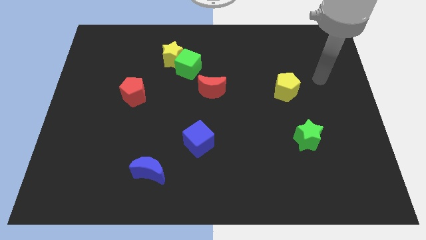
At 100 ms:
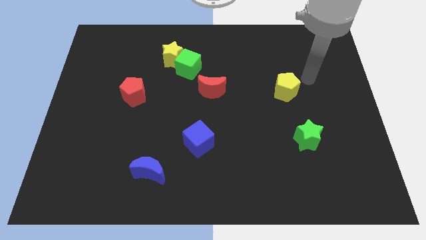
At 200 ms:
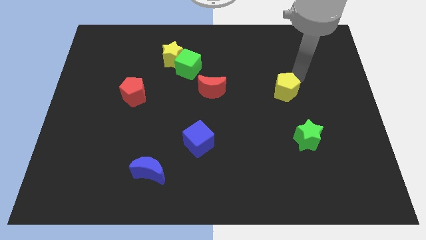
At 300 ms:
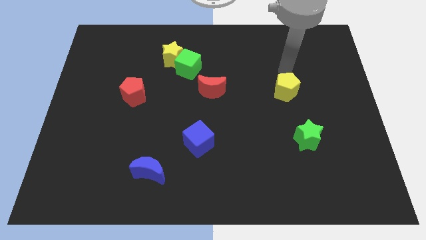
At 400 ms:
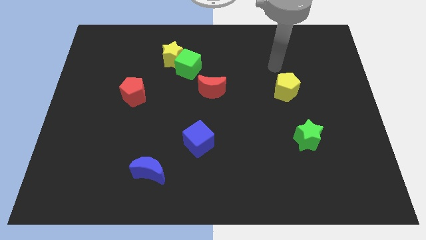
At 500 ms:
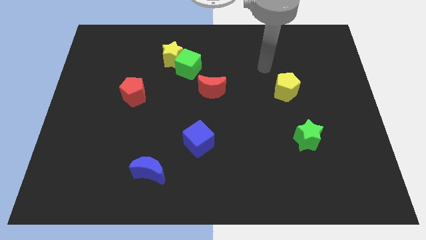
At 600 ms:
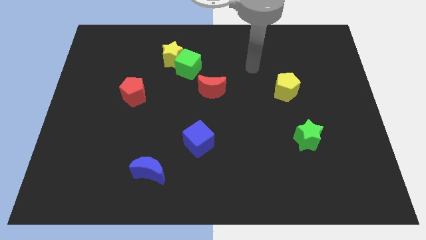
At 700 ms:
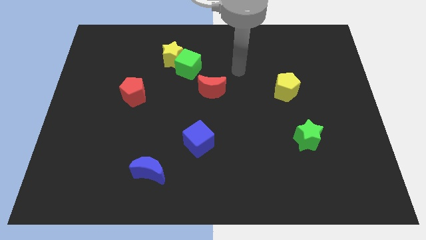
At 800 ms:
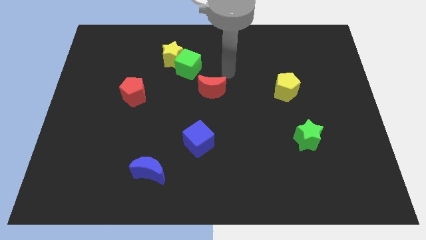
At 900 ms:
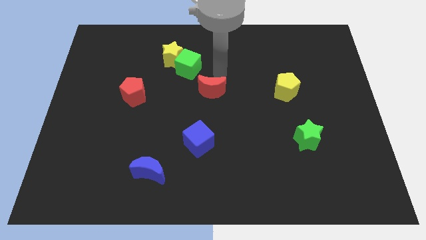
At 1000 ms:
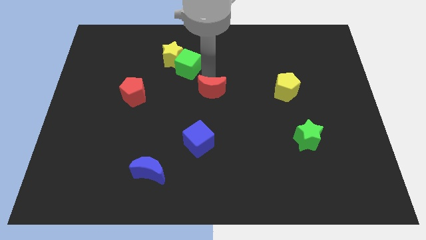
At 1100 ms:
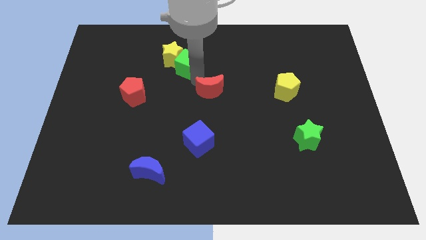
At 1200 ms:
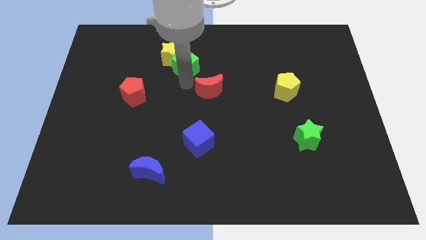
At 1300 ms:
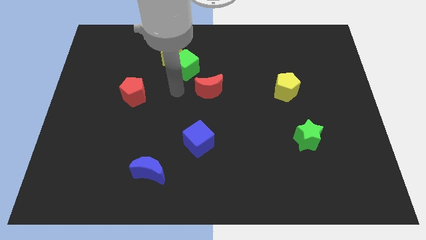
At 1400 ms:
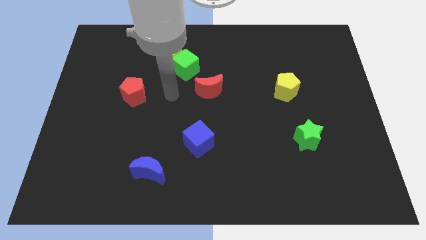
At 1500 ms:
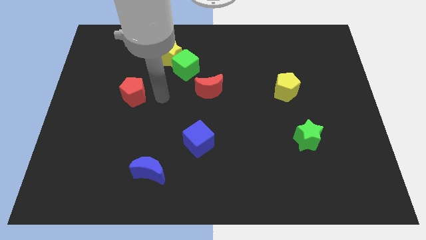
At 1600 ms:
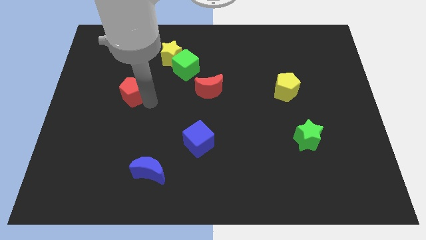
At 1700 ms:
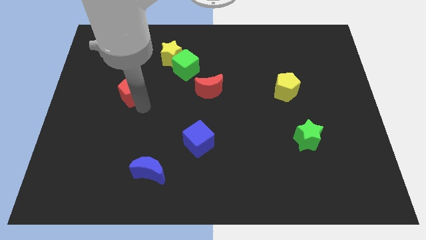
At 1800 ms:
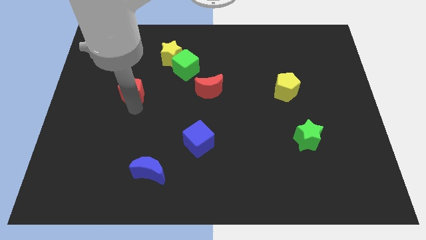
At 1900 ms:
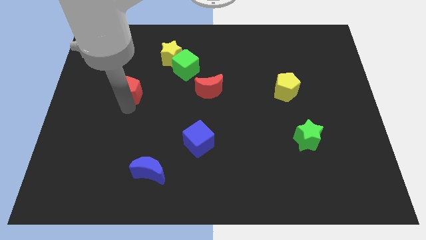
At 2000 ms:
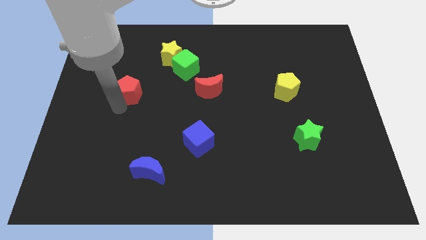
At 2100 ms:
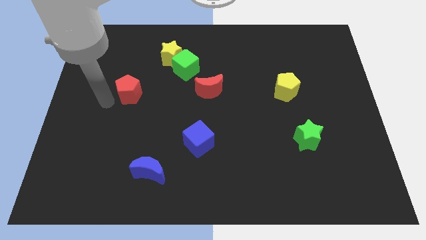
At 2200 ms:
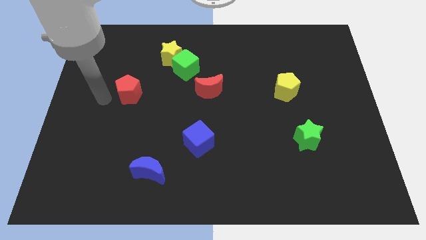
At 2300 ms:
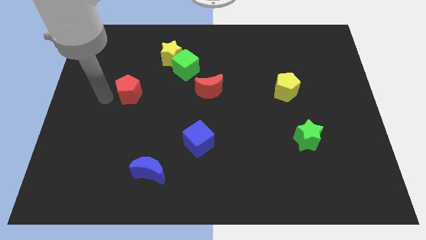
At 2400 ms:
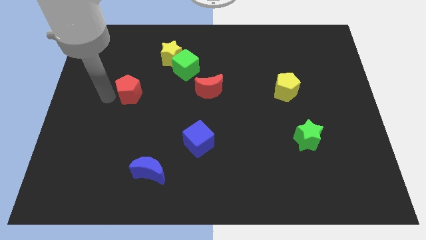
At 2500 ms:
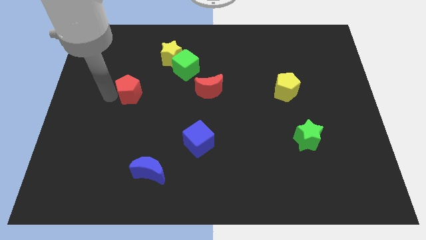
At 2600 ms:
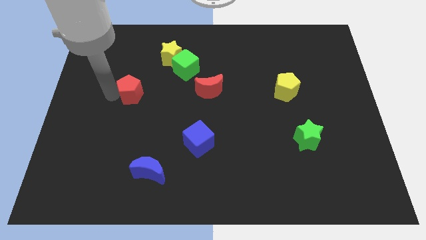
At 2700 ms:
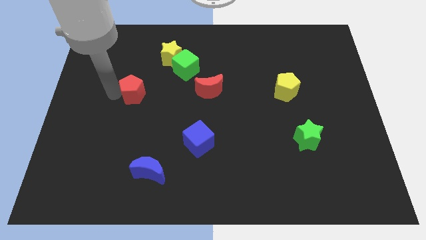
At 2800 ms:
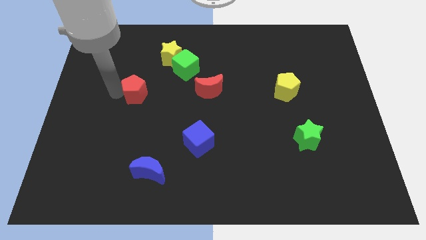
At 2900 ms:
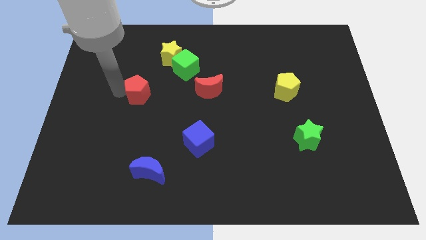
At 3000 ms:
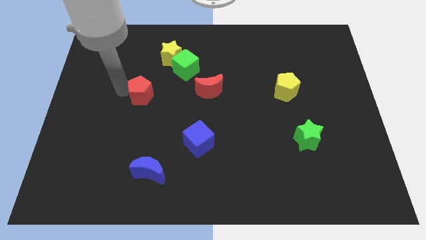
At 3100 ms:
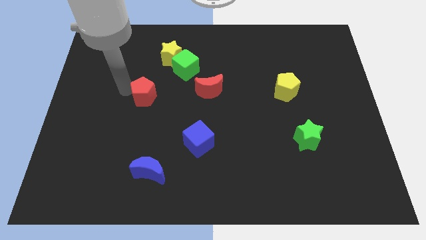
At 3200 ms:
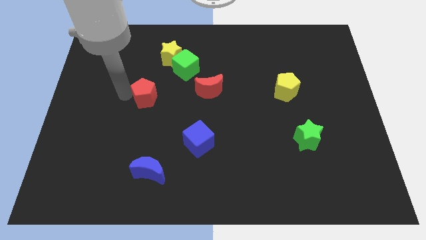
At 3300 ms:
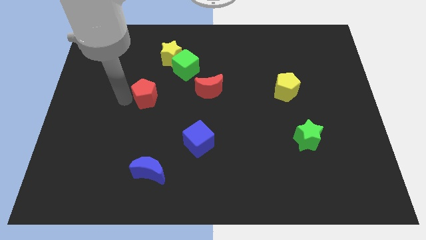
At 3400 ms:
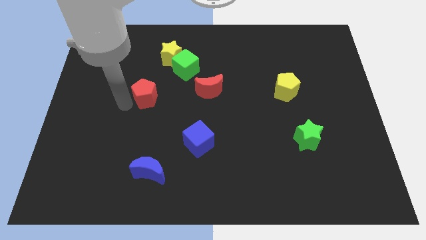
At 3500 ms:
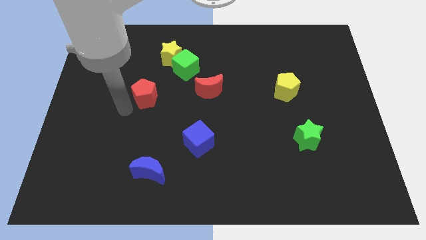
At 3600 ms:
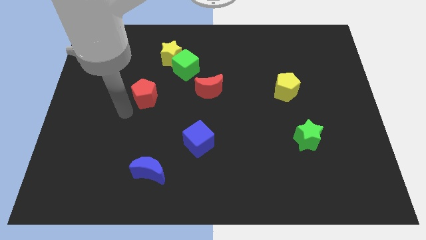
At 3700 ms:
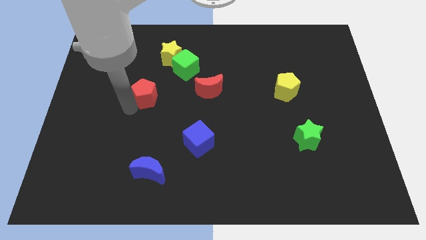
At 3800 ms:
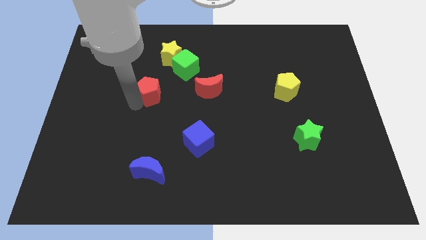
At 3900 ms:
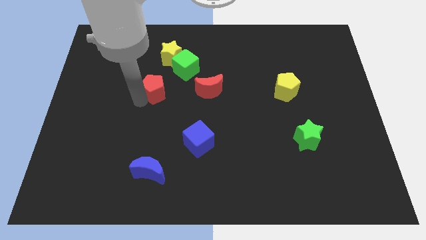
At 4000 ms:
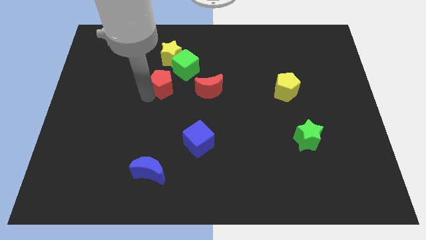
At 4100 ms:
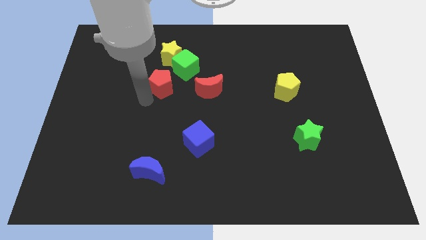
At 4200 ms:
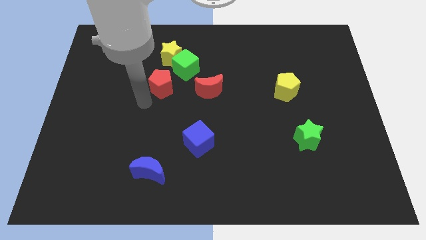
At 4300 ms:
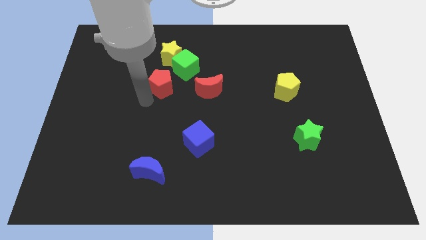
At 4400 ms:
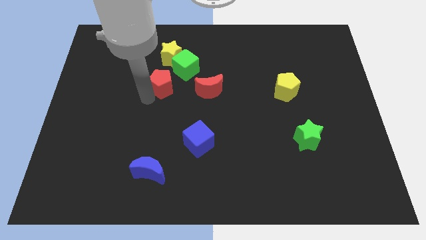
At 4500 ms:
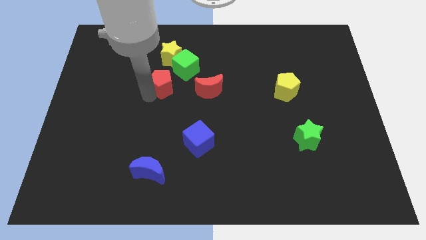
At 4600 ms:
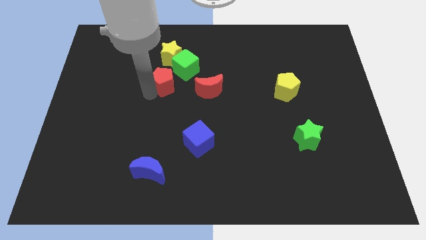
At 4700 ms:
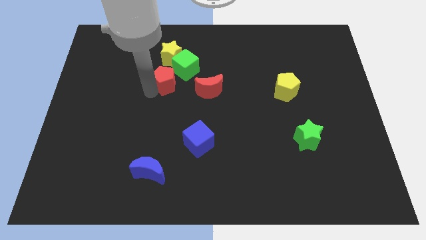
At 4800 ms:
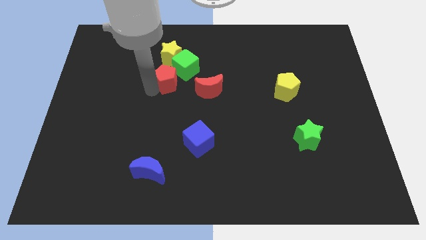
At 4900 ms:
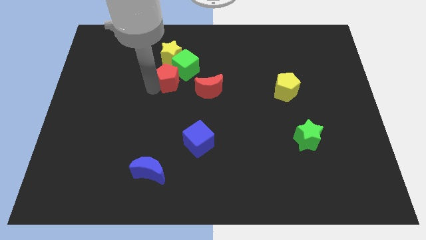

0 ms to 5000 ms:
move the red pentagon close to the green cube

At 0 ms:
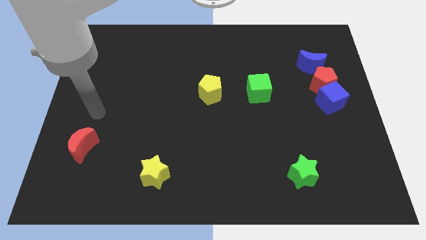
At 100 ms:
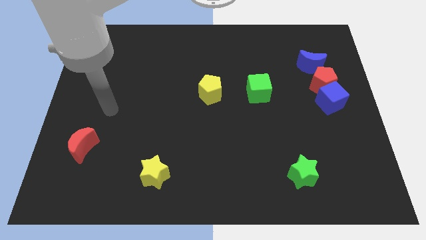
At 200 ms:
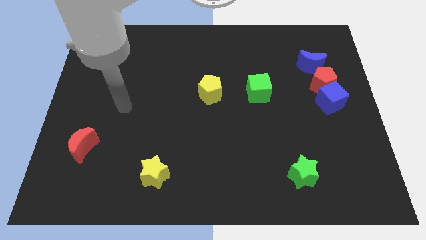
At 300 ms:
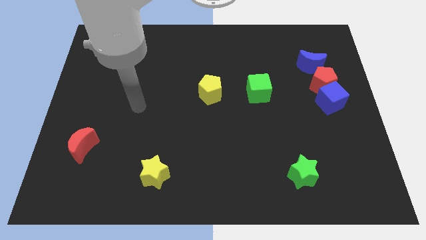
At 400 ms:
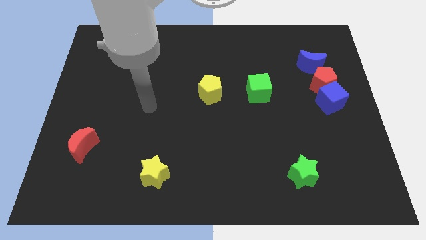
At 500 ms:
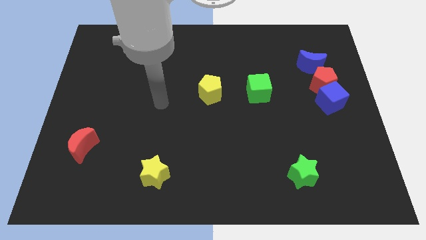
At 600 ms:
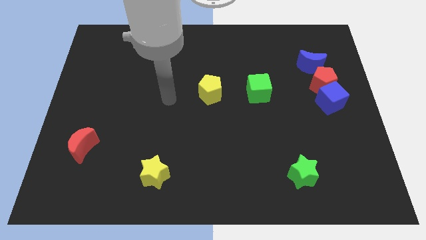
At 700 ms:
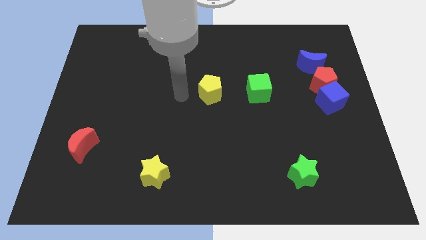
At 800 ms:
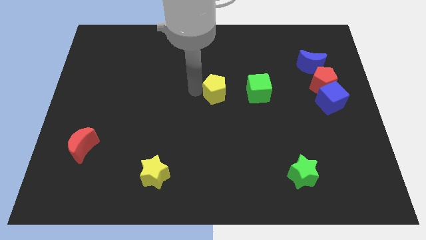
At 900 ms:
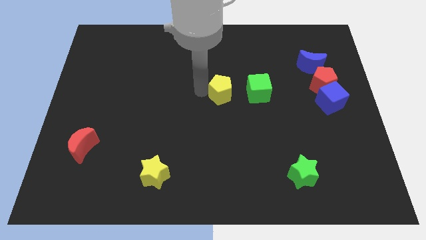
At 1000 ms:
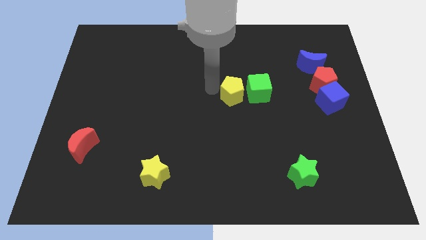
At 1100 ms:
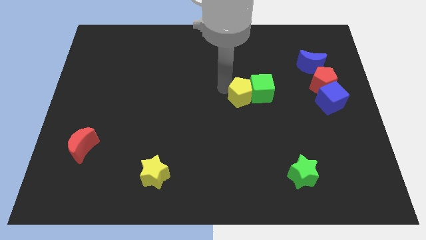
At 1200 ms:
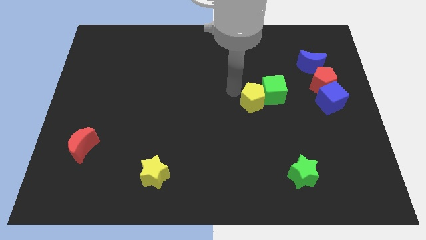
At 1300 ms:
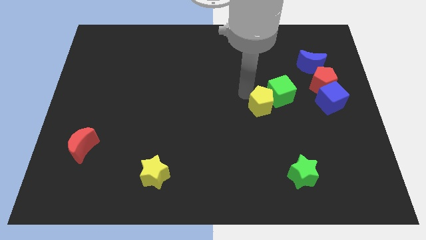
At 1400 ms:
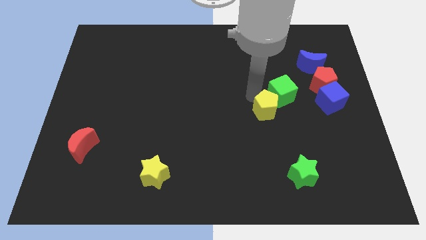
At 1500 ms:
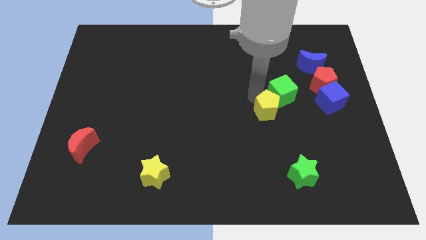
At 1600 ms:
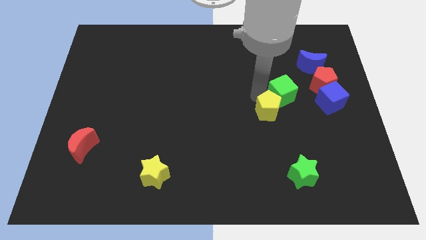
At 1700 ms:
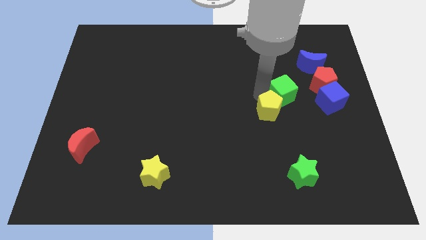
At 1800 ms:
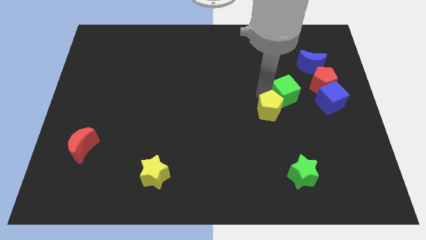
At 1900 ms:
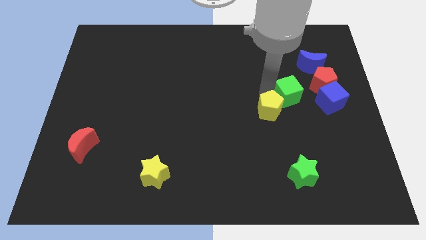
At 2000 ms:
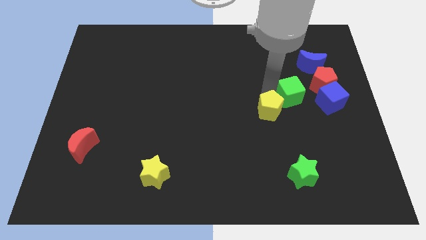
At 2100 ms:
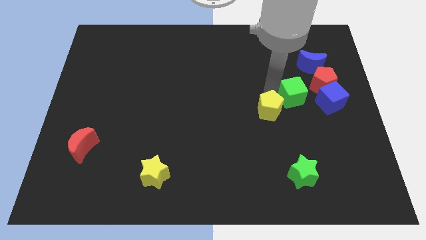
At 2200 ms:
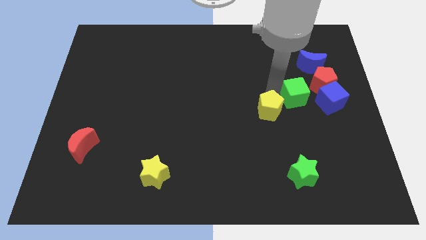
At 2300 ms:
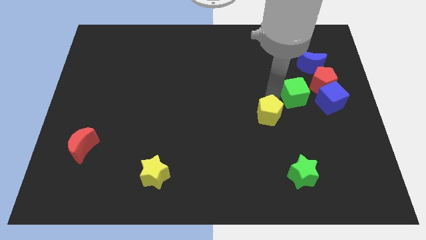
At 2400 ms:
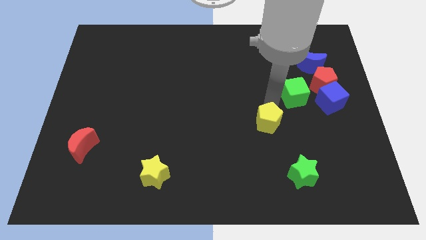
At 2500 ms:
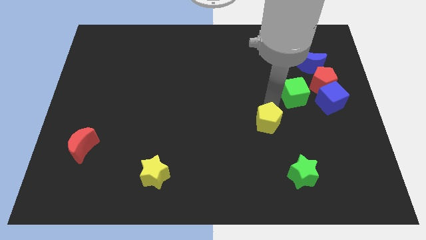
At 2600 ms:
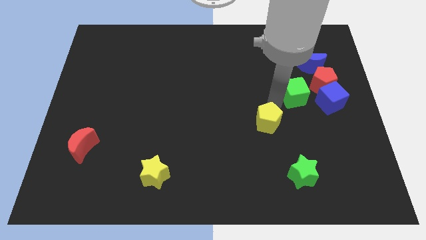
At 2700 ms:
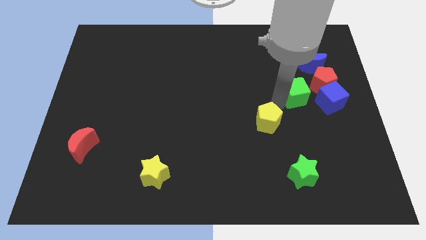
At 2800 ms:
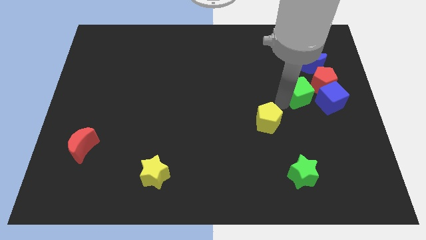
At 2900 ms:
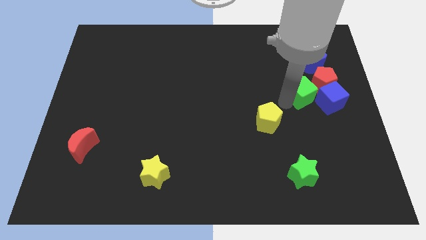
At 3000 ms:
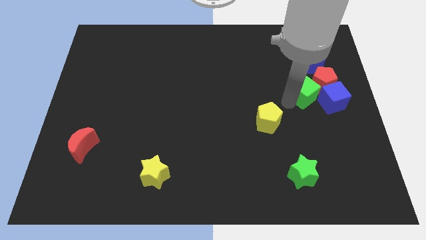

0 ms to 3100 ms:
slide the green cube to the red pentagon
